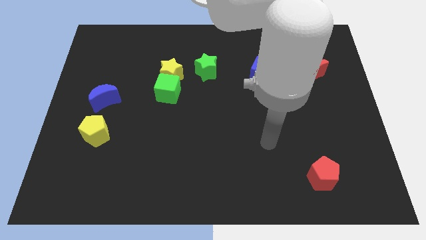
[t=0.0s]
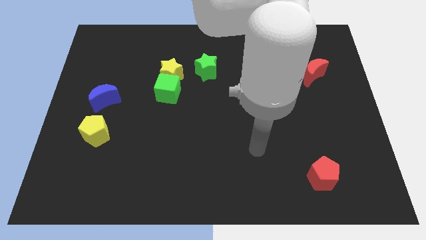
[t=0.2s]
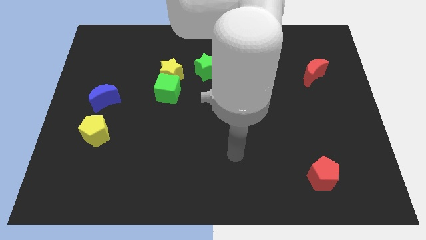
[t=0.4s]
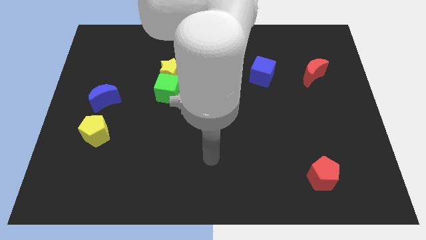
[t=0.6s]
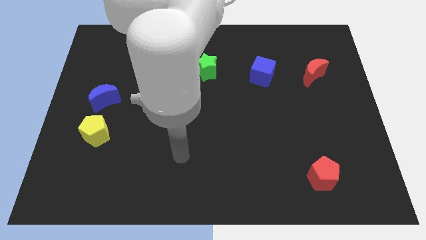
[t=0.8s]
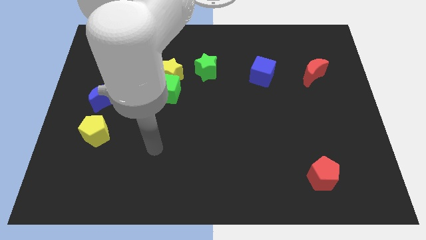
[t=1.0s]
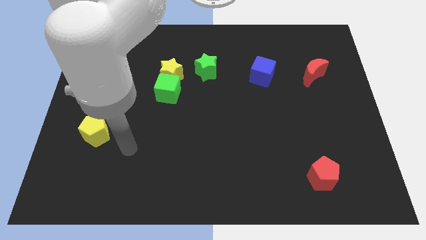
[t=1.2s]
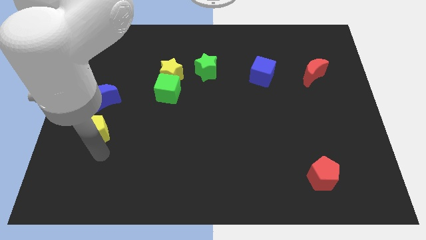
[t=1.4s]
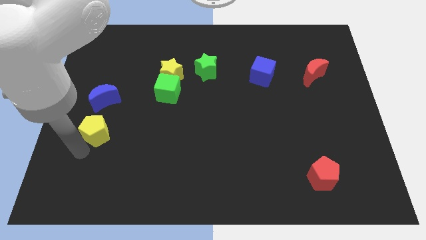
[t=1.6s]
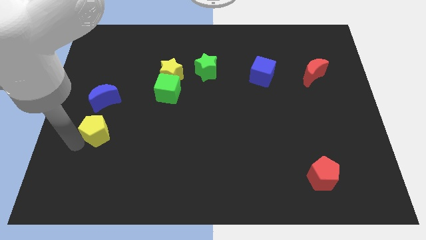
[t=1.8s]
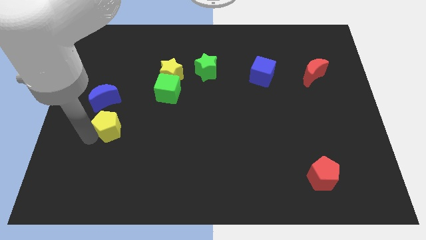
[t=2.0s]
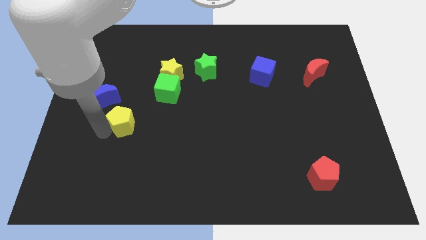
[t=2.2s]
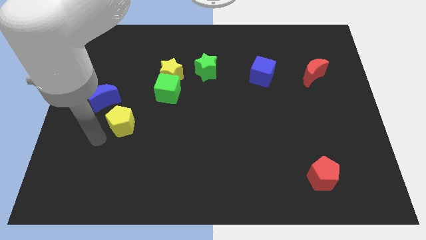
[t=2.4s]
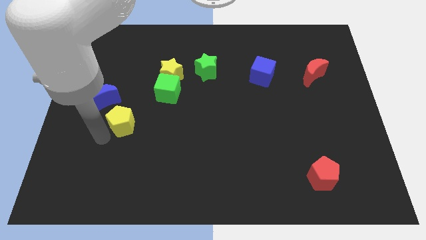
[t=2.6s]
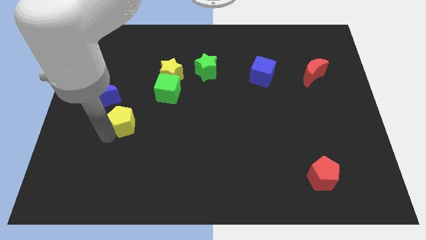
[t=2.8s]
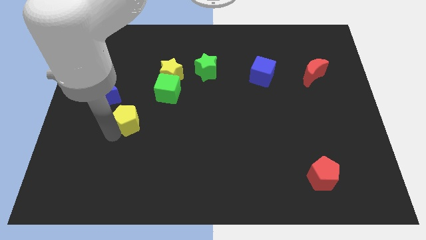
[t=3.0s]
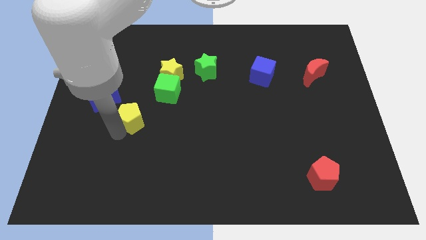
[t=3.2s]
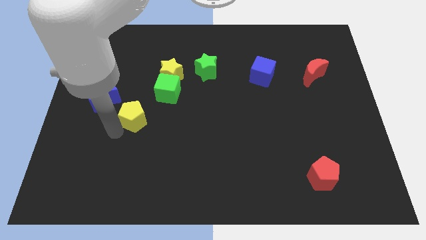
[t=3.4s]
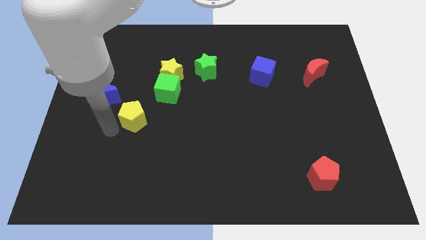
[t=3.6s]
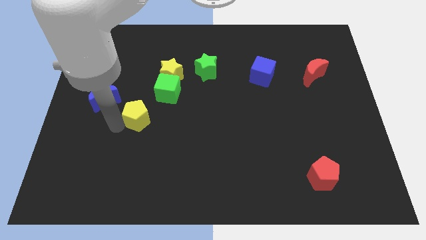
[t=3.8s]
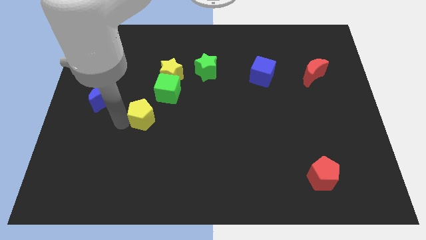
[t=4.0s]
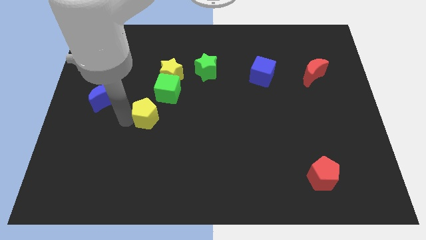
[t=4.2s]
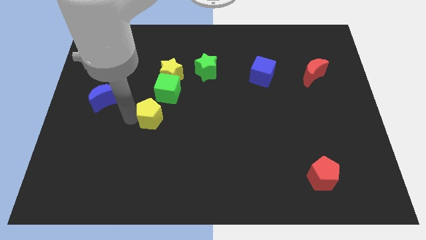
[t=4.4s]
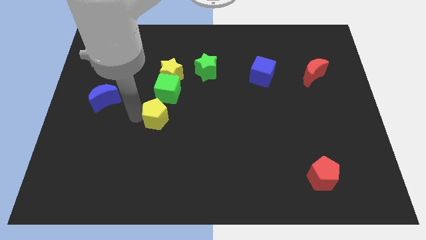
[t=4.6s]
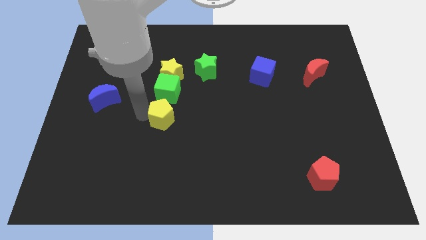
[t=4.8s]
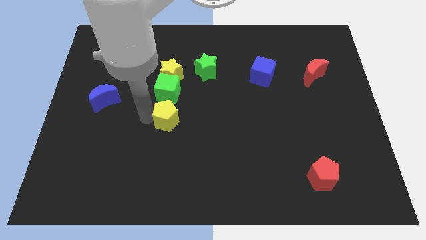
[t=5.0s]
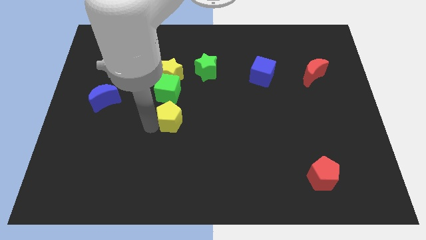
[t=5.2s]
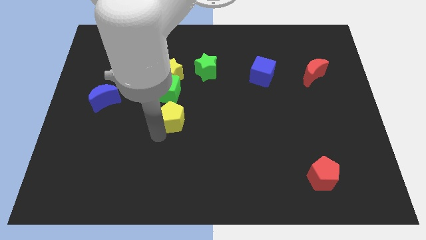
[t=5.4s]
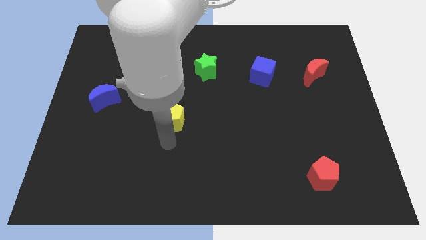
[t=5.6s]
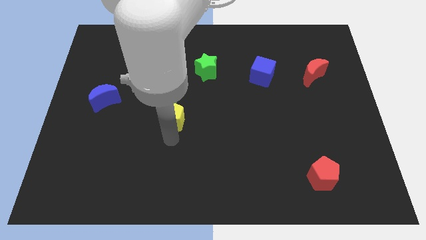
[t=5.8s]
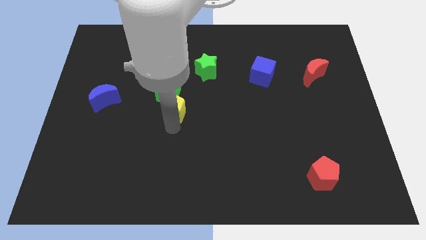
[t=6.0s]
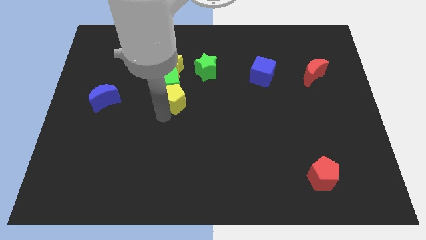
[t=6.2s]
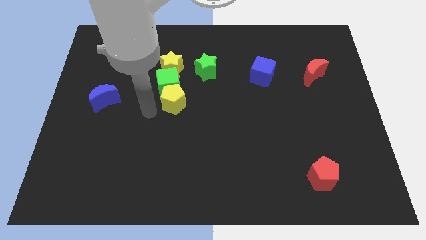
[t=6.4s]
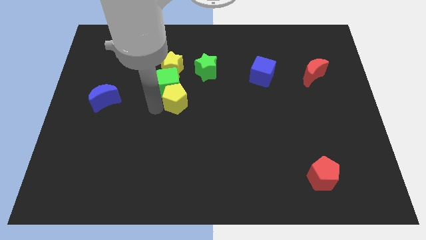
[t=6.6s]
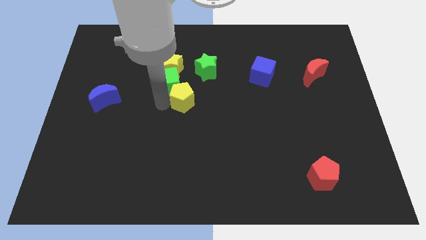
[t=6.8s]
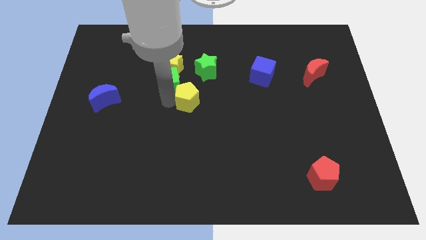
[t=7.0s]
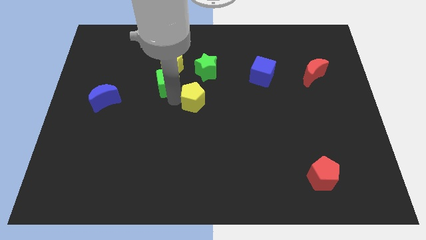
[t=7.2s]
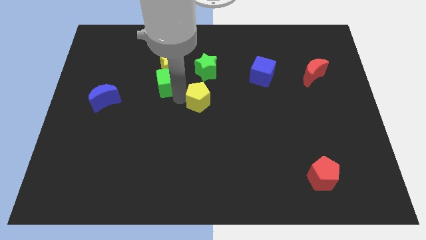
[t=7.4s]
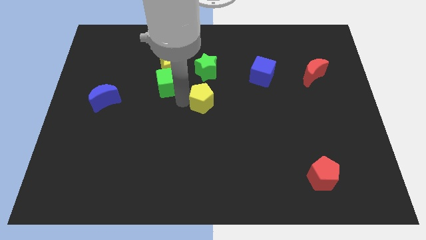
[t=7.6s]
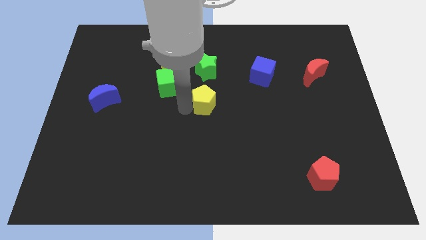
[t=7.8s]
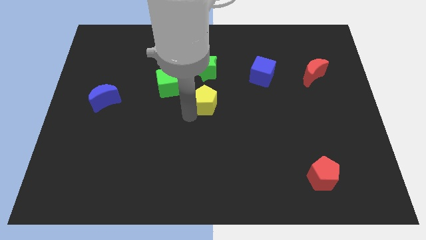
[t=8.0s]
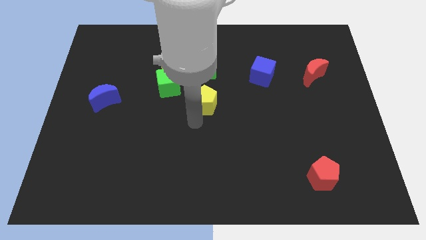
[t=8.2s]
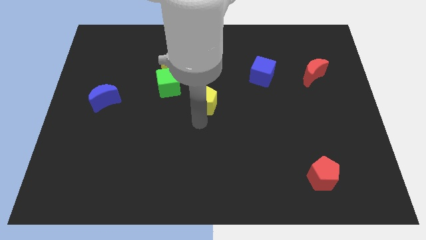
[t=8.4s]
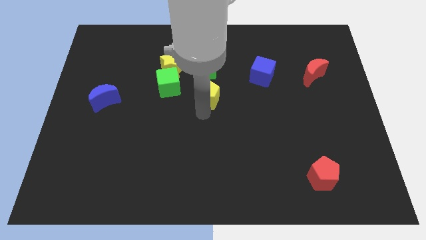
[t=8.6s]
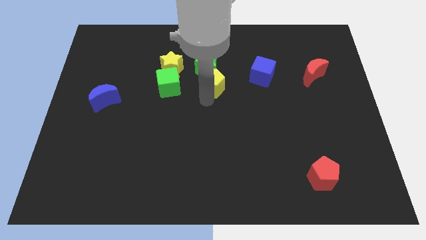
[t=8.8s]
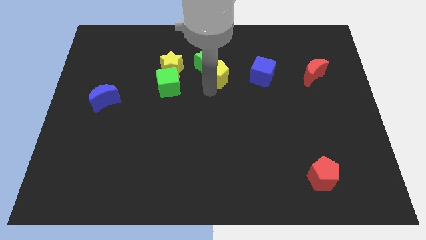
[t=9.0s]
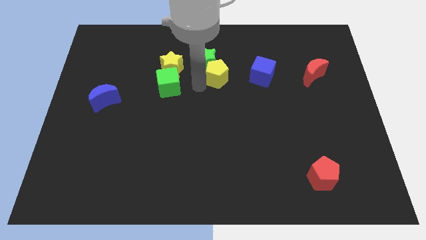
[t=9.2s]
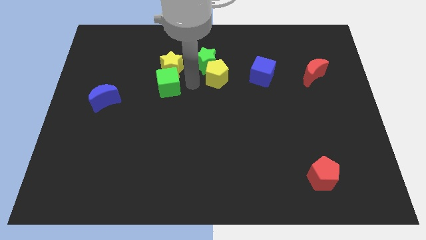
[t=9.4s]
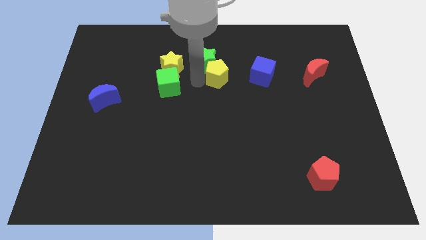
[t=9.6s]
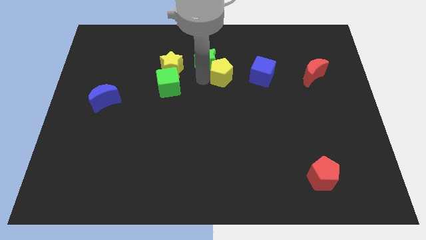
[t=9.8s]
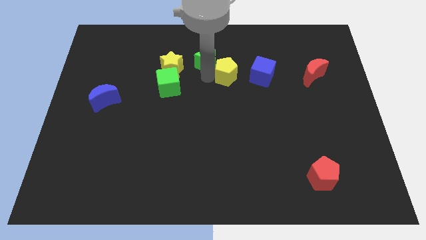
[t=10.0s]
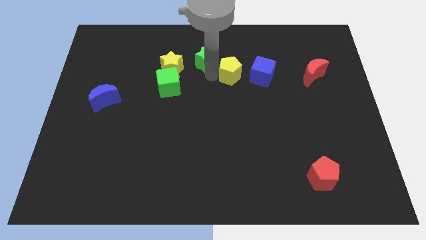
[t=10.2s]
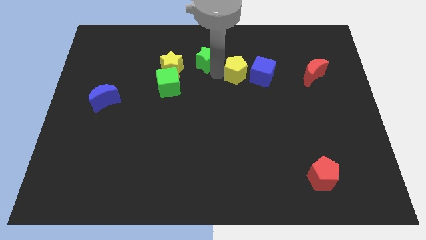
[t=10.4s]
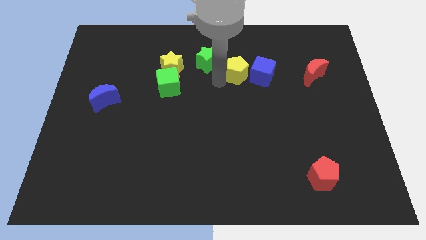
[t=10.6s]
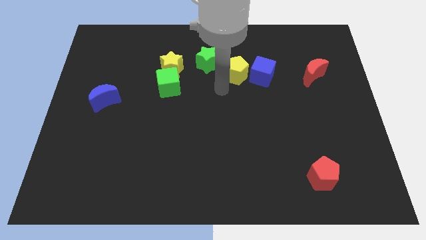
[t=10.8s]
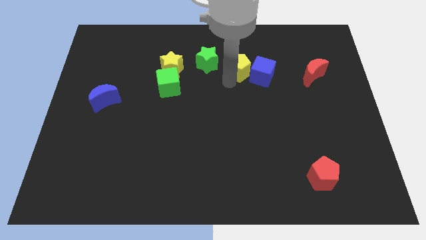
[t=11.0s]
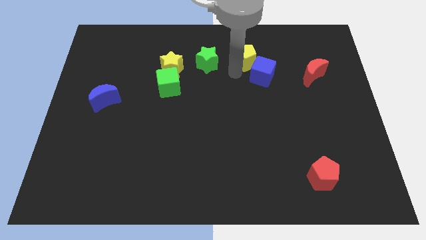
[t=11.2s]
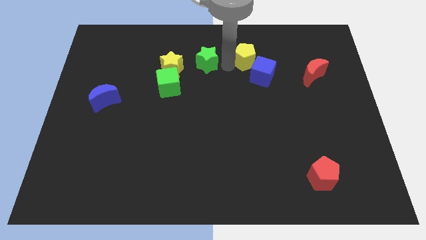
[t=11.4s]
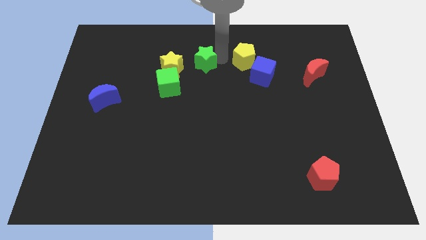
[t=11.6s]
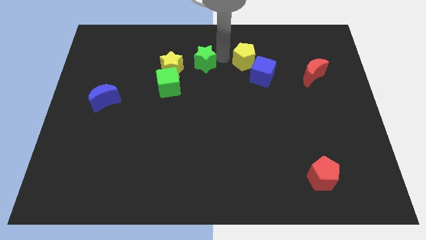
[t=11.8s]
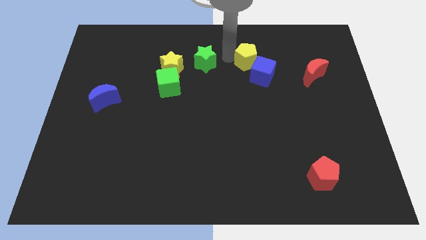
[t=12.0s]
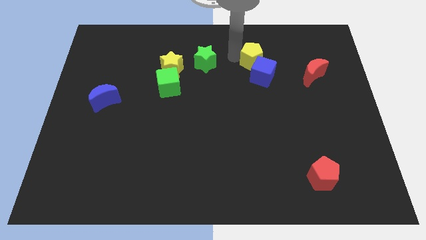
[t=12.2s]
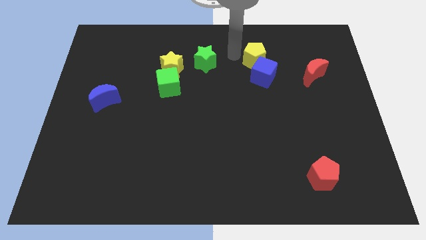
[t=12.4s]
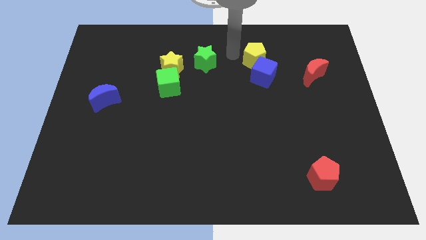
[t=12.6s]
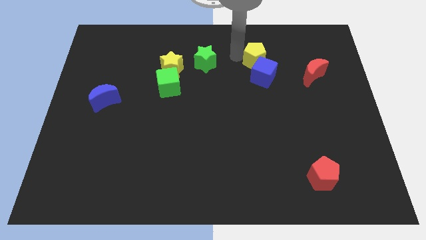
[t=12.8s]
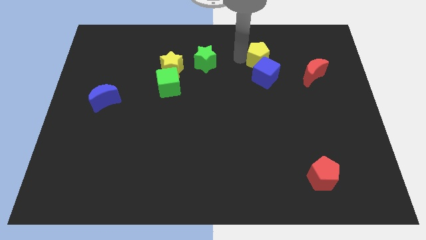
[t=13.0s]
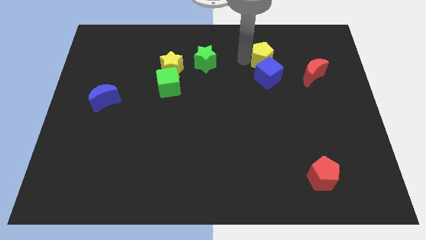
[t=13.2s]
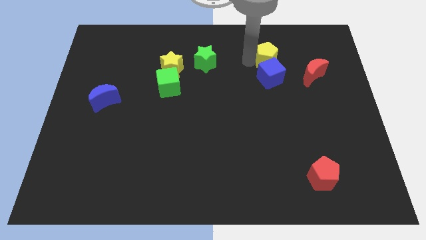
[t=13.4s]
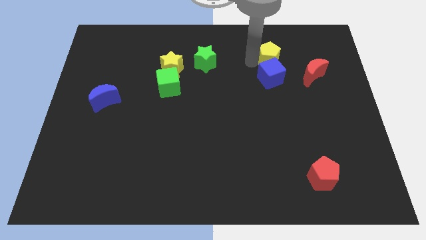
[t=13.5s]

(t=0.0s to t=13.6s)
put the yellow pentagon to the top left side of the red moon
